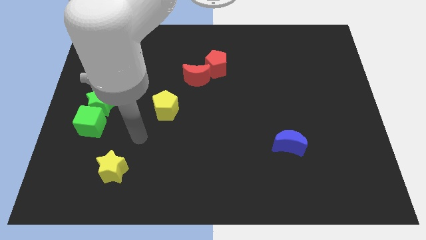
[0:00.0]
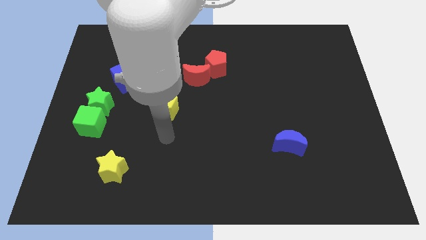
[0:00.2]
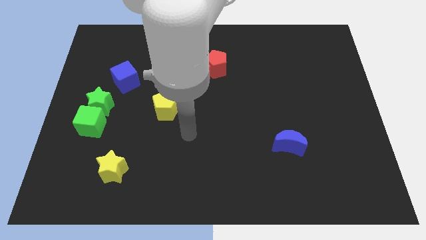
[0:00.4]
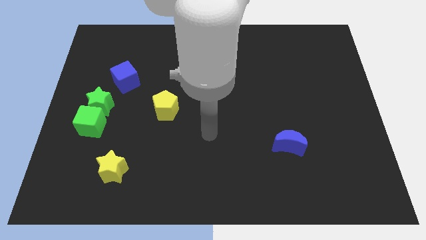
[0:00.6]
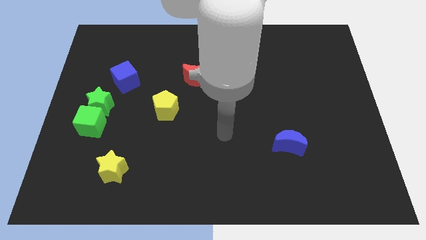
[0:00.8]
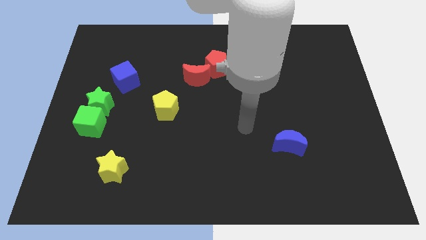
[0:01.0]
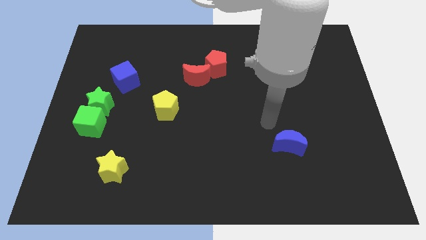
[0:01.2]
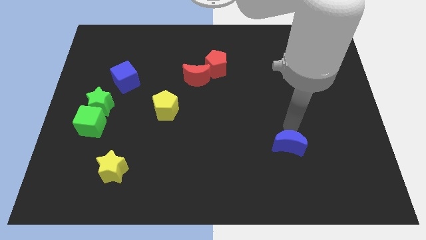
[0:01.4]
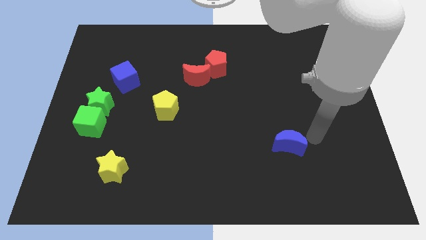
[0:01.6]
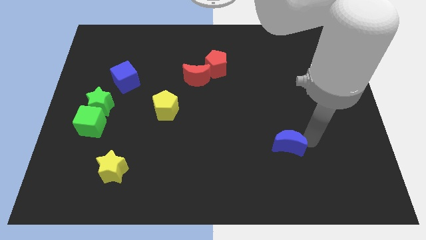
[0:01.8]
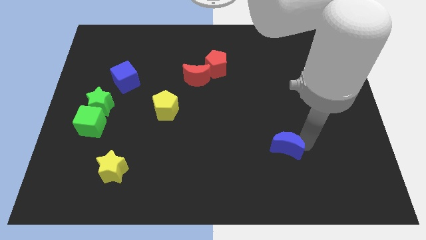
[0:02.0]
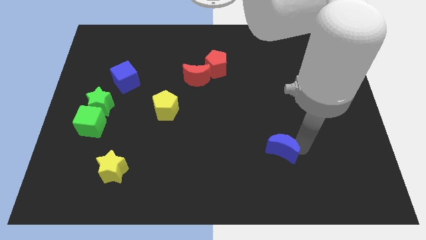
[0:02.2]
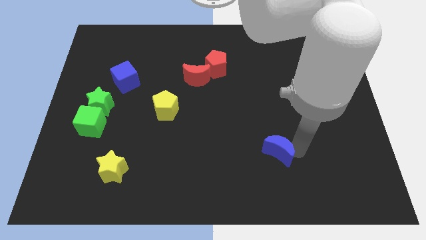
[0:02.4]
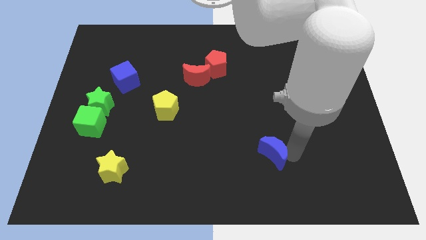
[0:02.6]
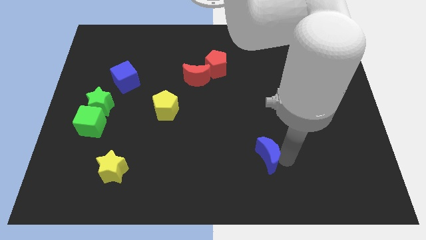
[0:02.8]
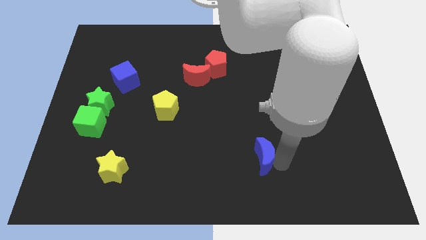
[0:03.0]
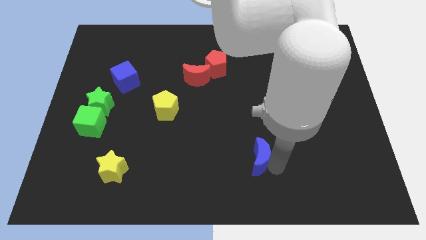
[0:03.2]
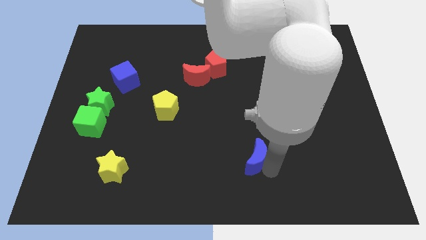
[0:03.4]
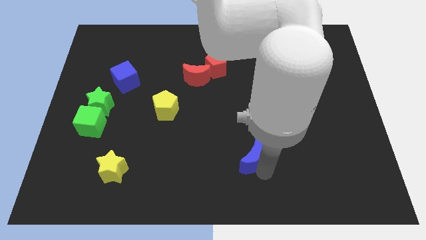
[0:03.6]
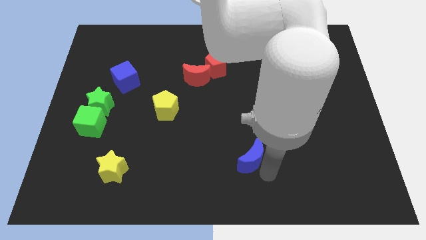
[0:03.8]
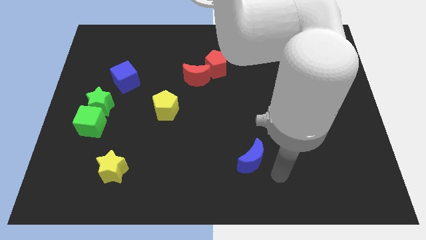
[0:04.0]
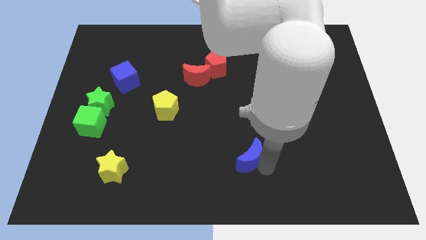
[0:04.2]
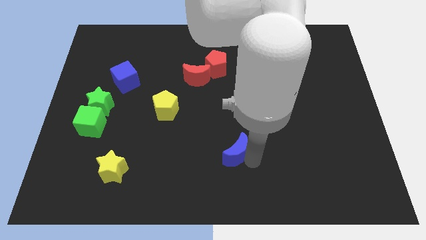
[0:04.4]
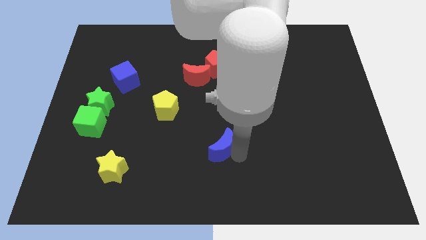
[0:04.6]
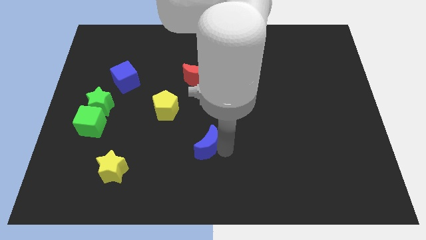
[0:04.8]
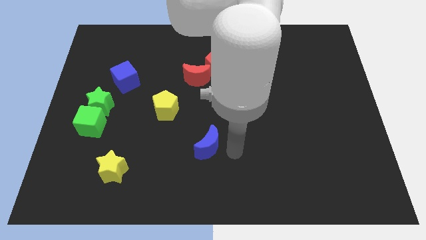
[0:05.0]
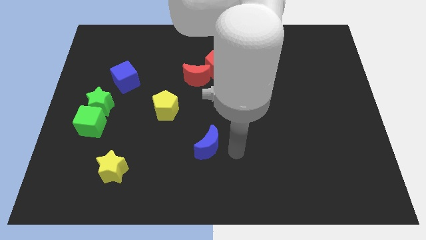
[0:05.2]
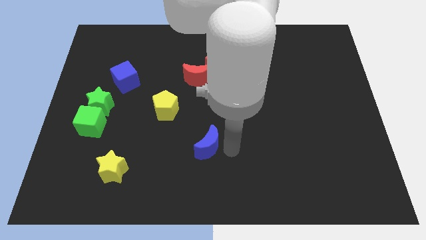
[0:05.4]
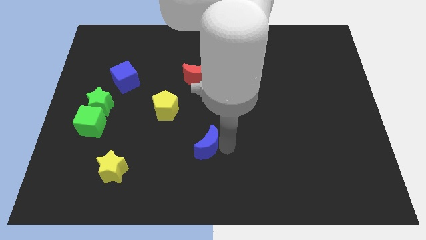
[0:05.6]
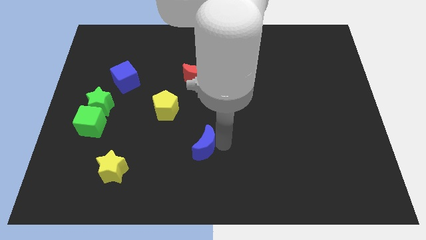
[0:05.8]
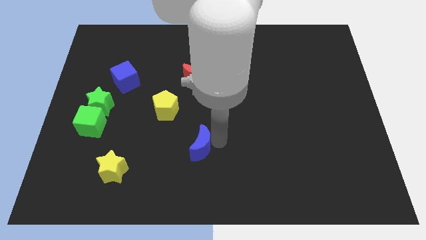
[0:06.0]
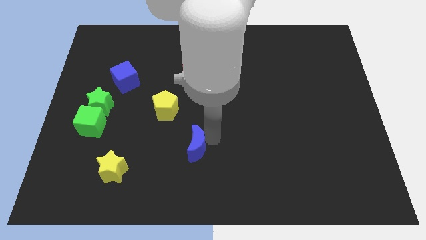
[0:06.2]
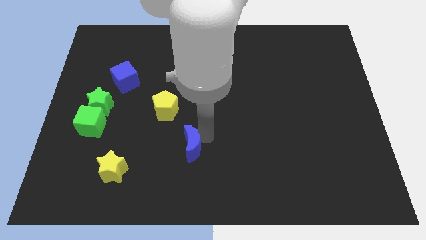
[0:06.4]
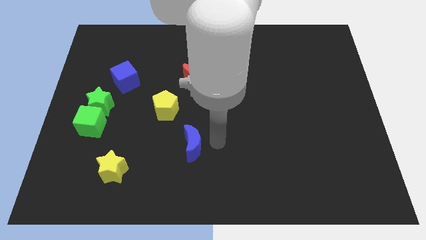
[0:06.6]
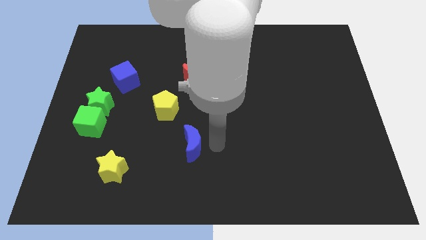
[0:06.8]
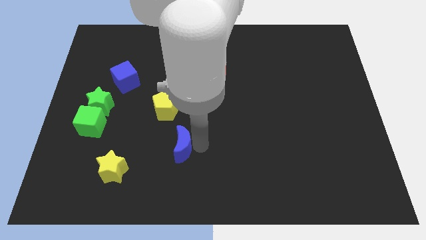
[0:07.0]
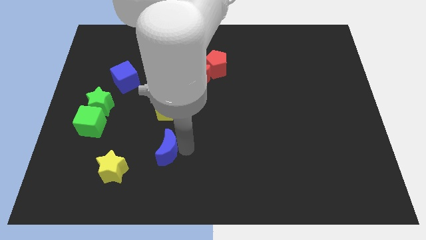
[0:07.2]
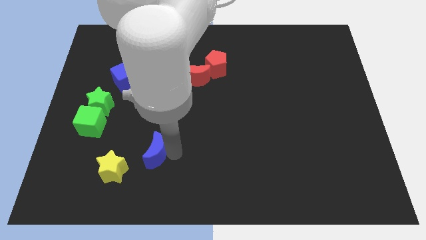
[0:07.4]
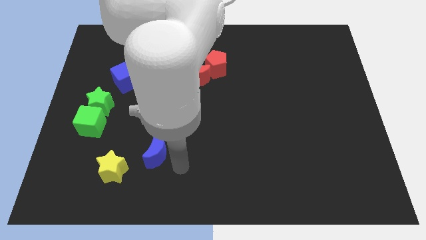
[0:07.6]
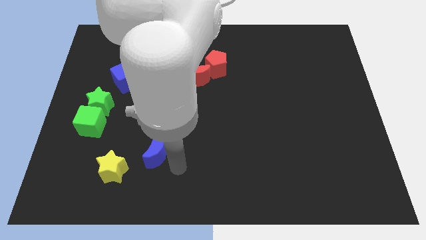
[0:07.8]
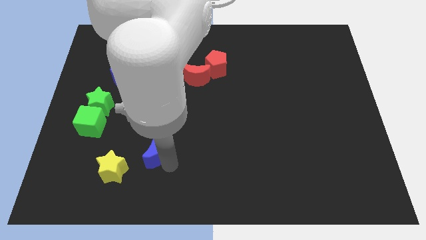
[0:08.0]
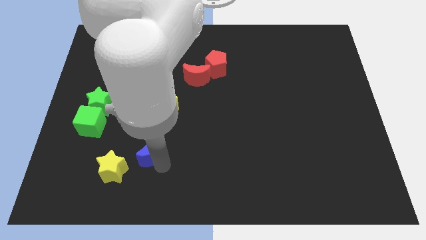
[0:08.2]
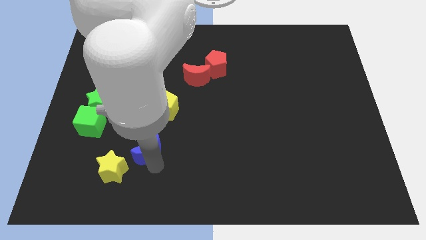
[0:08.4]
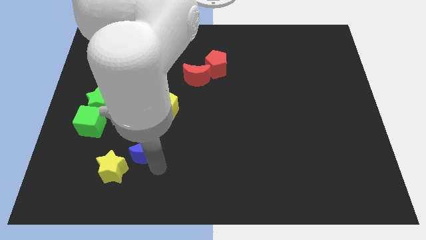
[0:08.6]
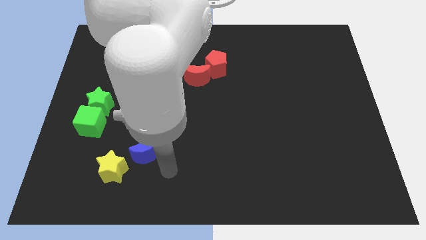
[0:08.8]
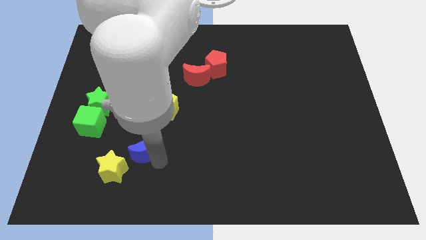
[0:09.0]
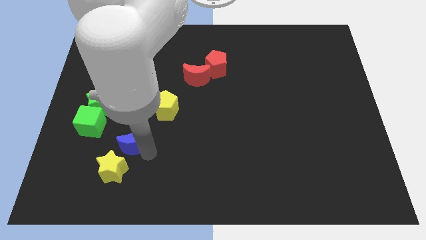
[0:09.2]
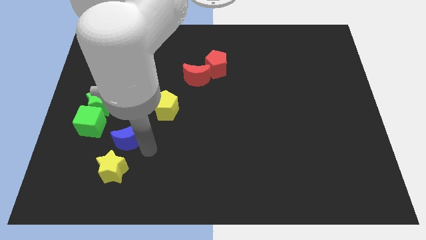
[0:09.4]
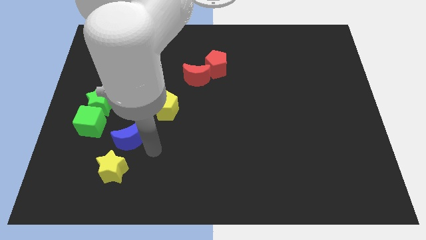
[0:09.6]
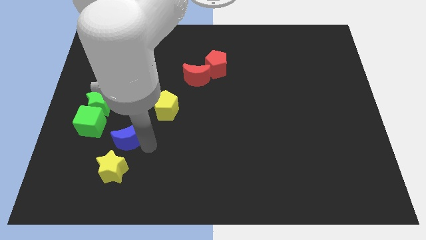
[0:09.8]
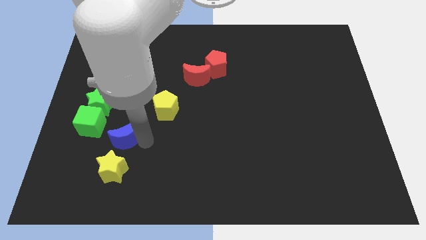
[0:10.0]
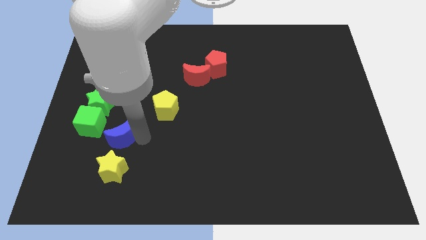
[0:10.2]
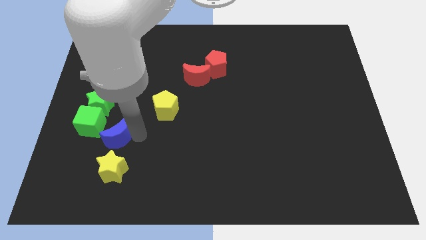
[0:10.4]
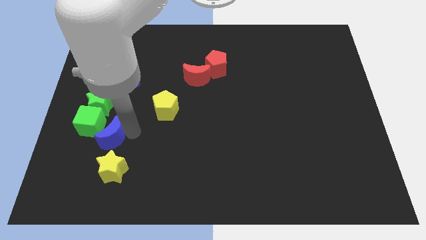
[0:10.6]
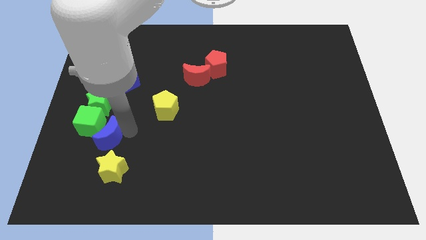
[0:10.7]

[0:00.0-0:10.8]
move the blue moon next to the green cube

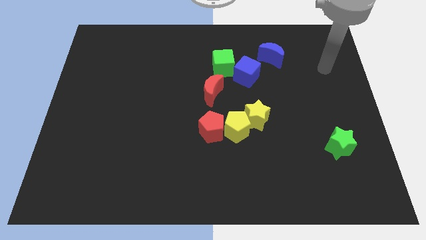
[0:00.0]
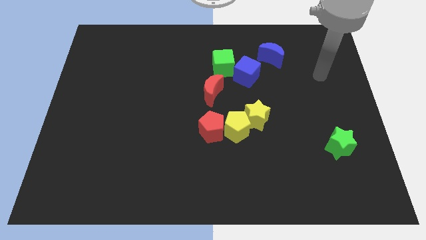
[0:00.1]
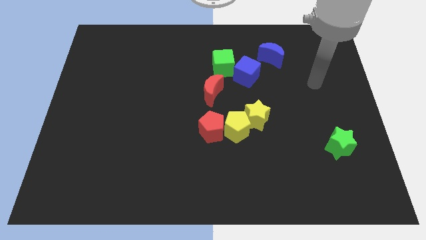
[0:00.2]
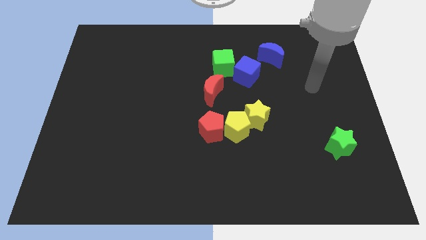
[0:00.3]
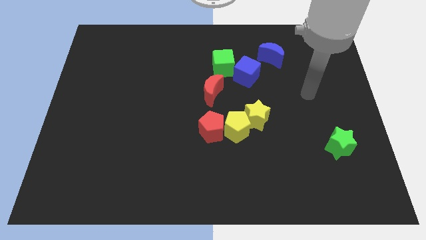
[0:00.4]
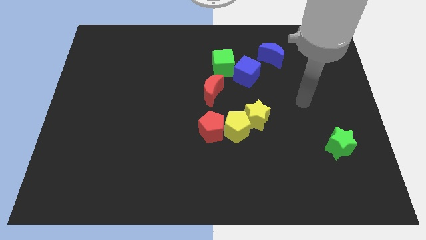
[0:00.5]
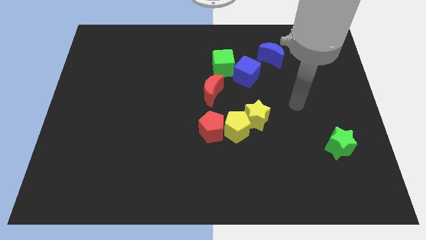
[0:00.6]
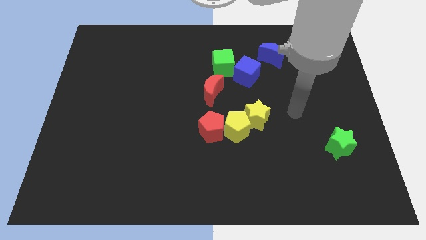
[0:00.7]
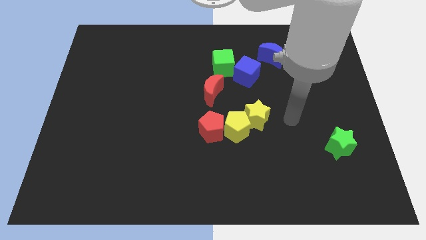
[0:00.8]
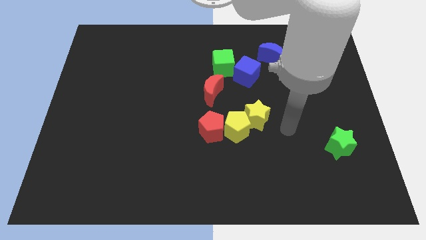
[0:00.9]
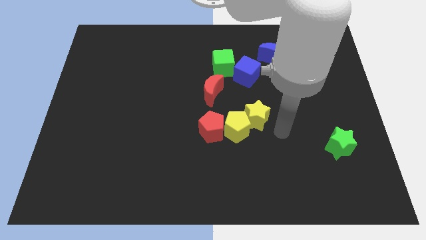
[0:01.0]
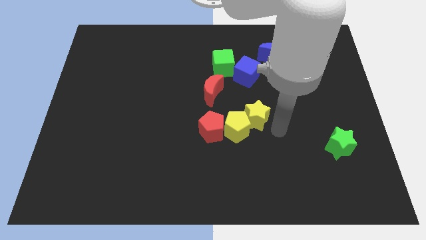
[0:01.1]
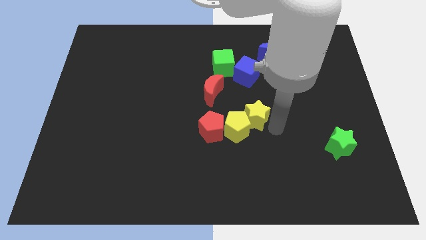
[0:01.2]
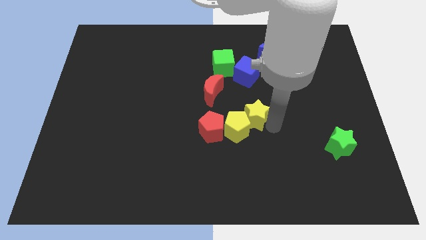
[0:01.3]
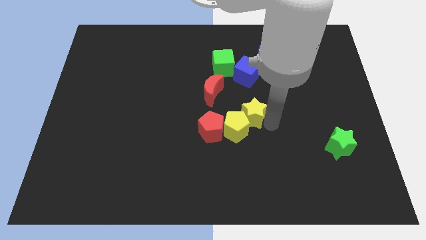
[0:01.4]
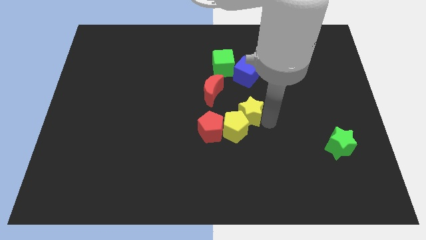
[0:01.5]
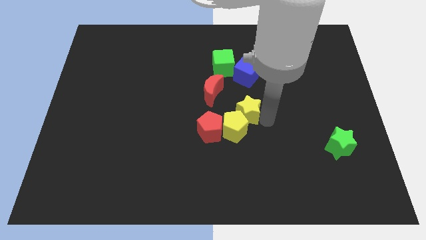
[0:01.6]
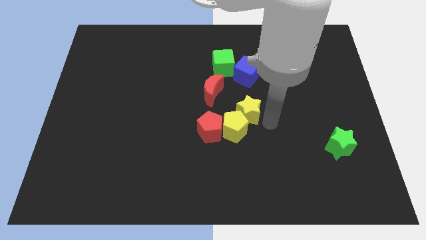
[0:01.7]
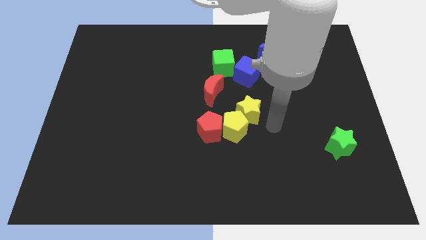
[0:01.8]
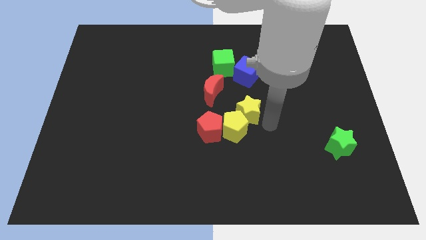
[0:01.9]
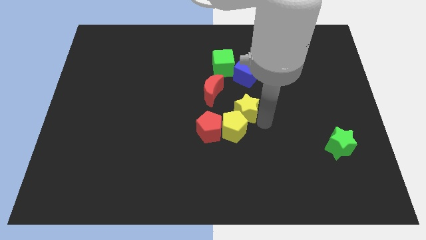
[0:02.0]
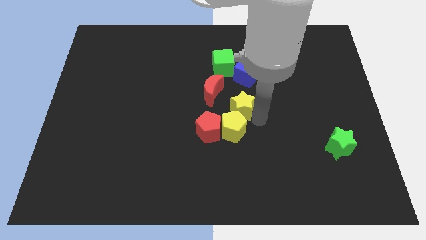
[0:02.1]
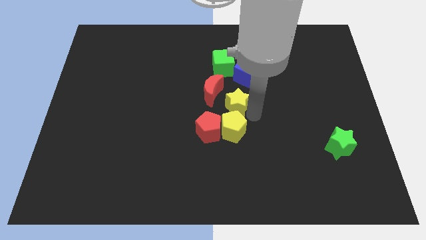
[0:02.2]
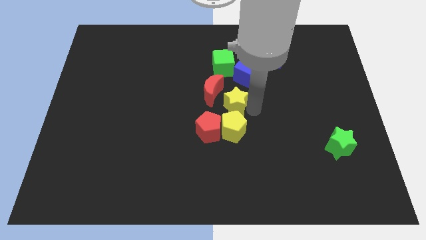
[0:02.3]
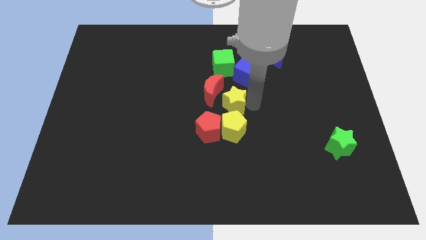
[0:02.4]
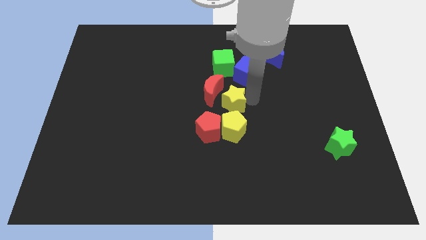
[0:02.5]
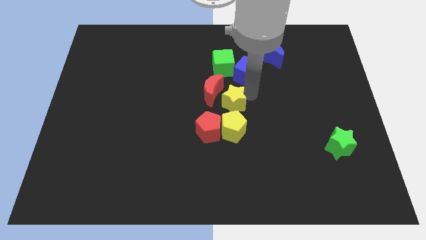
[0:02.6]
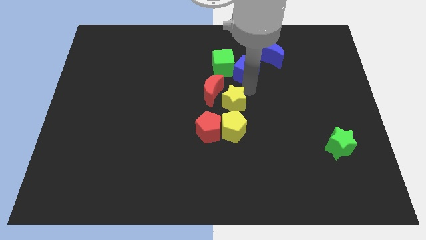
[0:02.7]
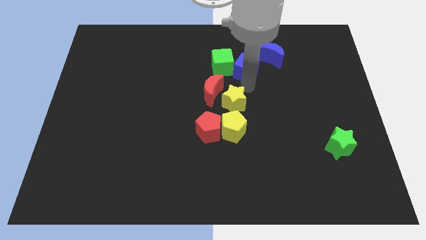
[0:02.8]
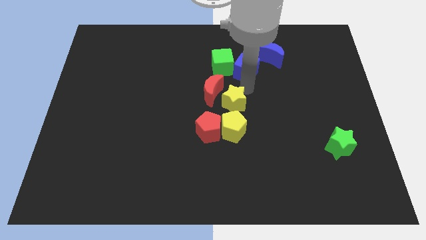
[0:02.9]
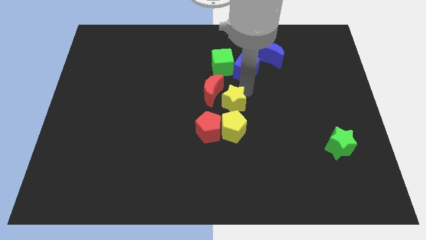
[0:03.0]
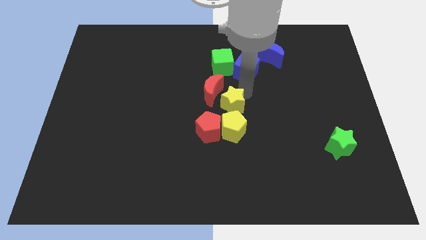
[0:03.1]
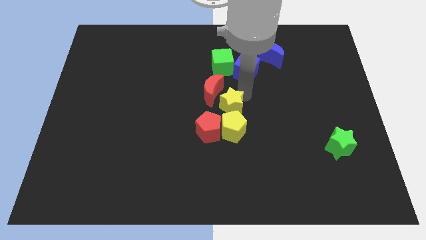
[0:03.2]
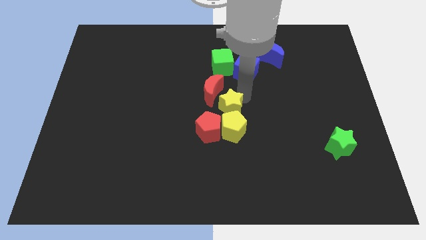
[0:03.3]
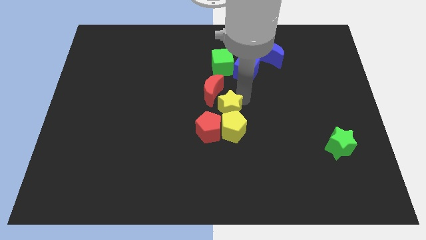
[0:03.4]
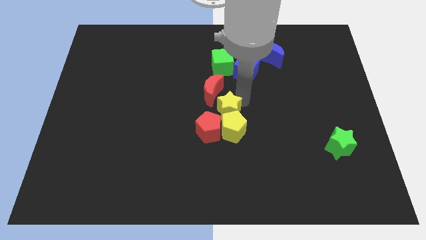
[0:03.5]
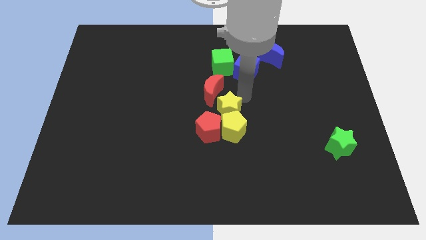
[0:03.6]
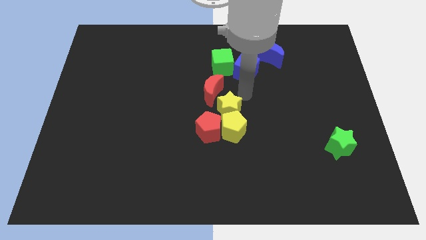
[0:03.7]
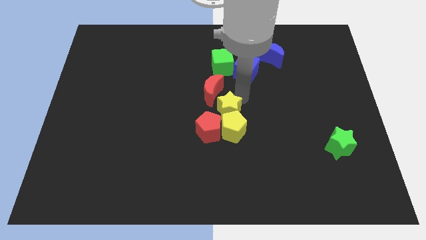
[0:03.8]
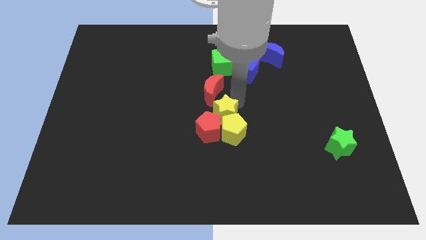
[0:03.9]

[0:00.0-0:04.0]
move the yellow star to the red pentagon
